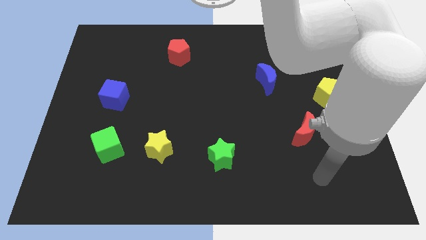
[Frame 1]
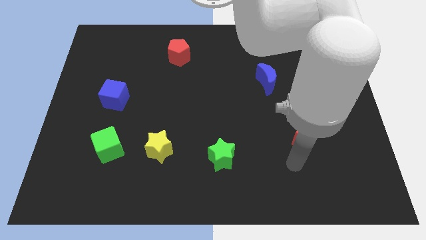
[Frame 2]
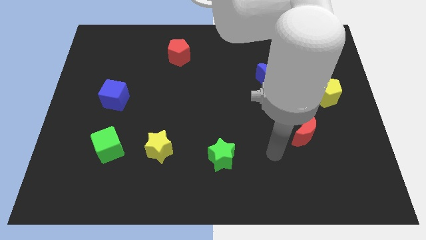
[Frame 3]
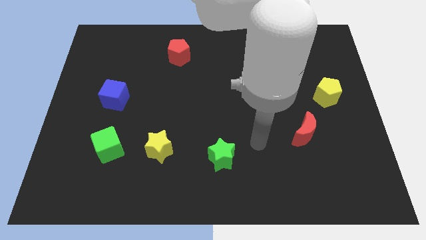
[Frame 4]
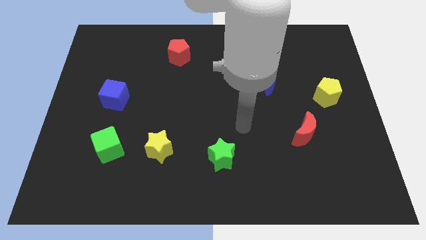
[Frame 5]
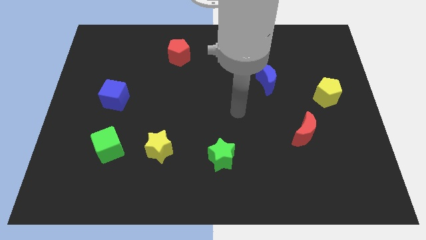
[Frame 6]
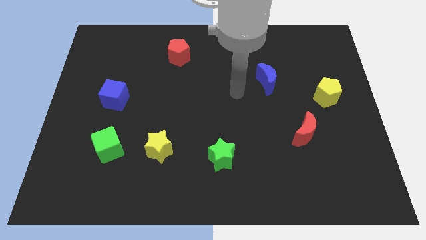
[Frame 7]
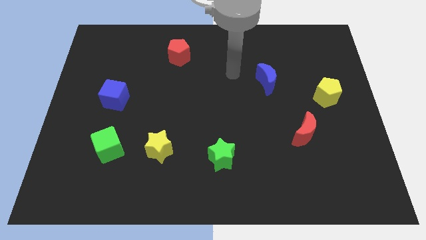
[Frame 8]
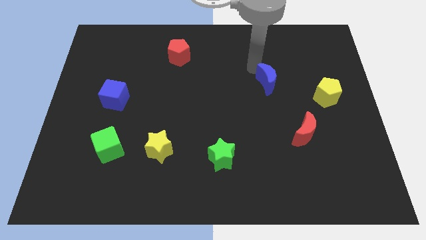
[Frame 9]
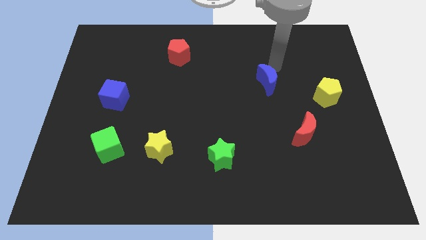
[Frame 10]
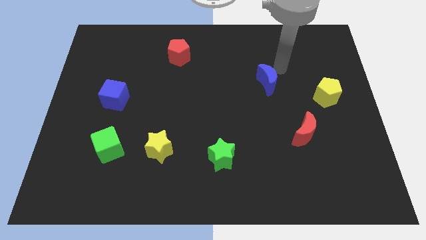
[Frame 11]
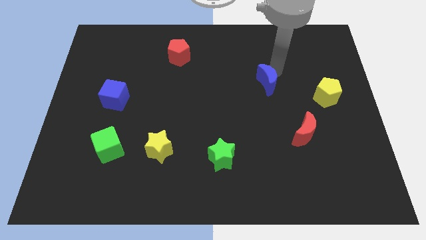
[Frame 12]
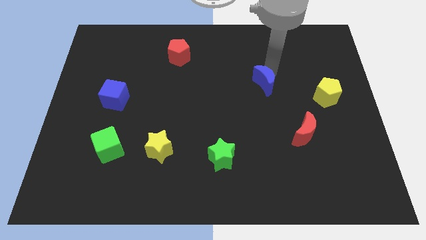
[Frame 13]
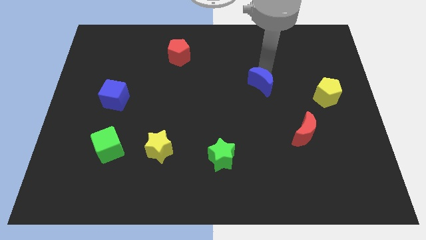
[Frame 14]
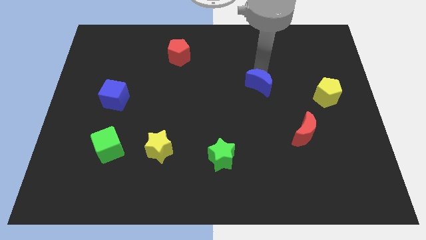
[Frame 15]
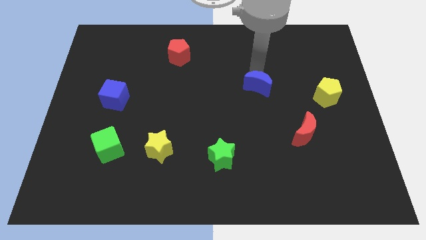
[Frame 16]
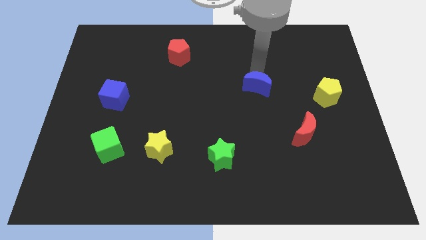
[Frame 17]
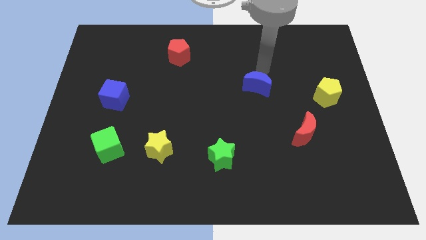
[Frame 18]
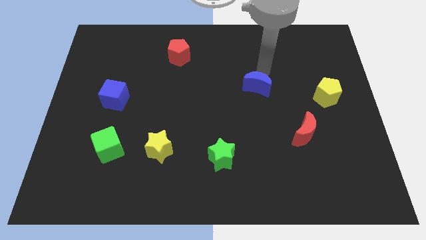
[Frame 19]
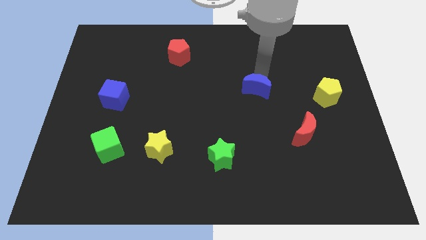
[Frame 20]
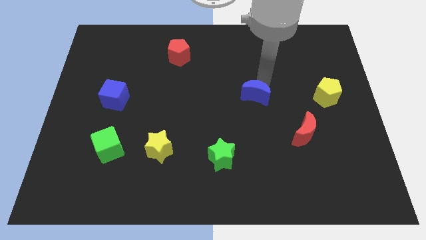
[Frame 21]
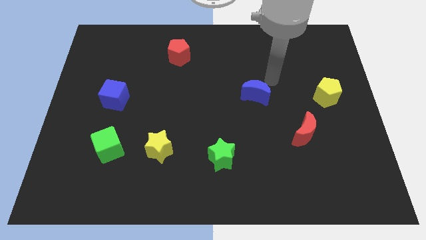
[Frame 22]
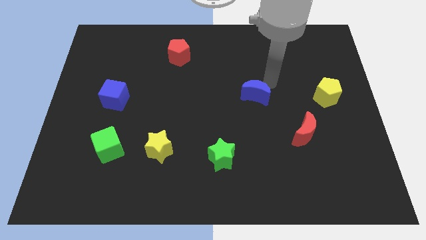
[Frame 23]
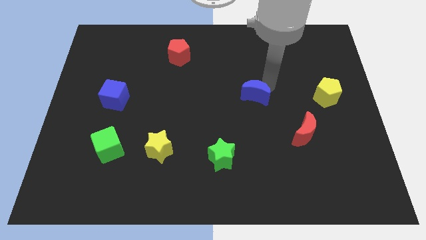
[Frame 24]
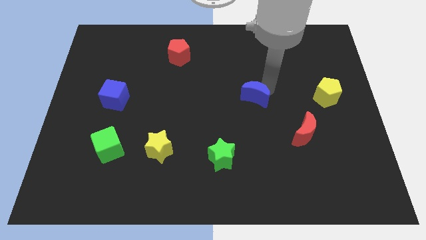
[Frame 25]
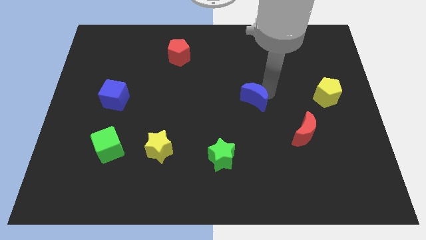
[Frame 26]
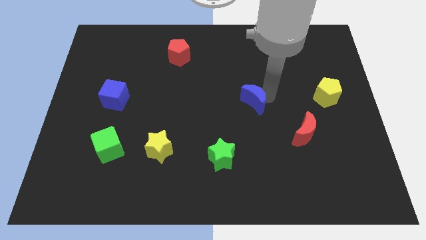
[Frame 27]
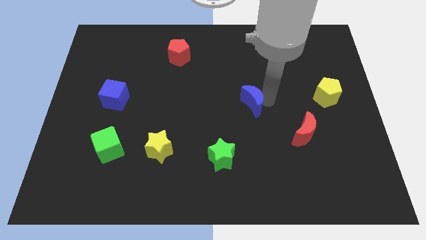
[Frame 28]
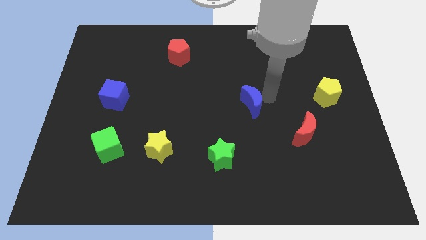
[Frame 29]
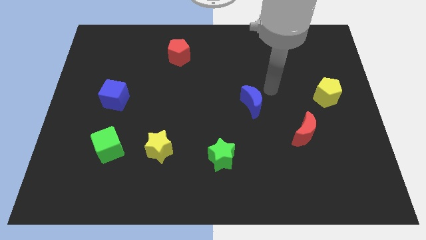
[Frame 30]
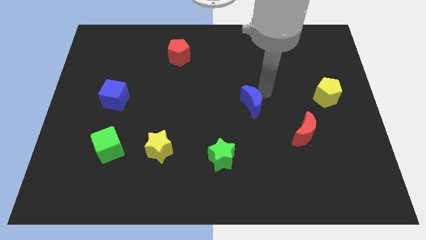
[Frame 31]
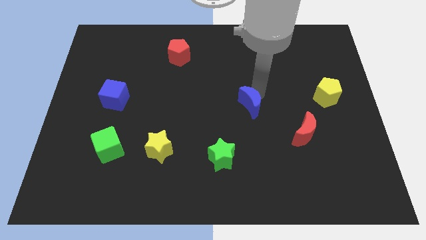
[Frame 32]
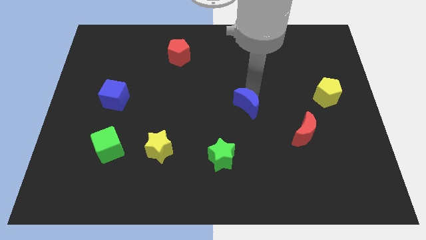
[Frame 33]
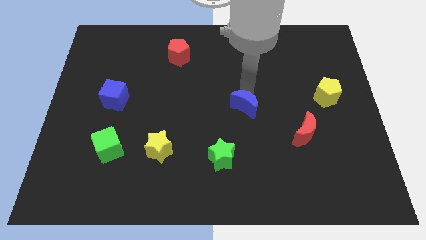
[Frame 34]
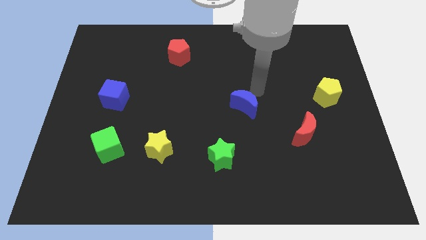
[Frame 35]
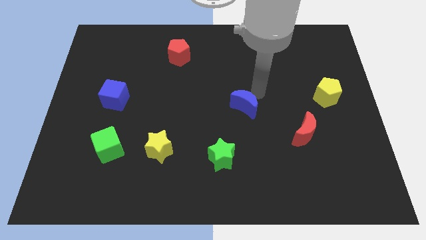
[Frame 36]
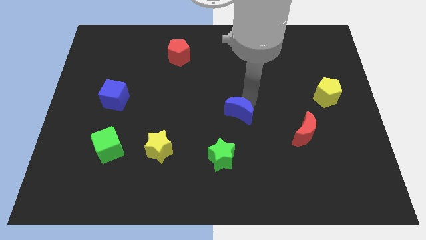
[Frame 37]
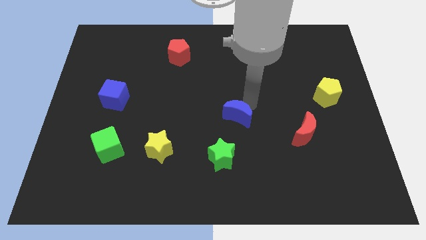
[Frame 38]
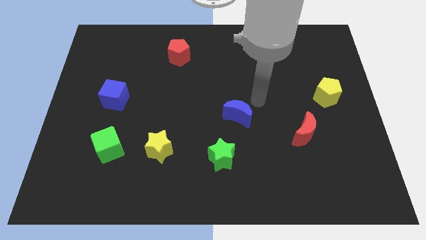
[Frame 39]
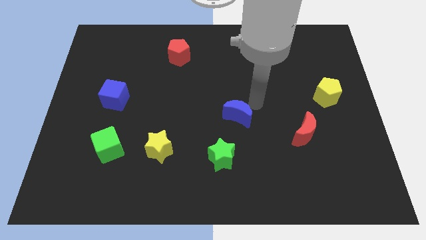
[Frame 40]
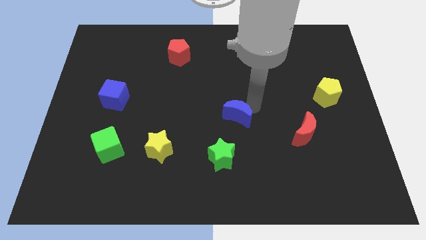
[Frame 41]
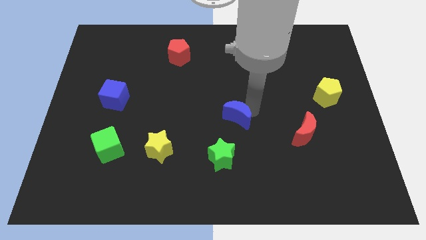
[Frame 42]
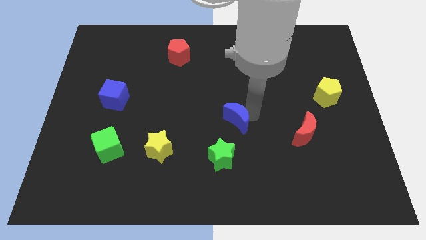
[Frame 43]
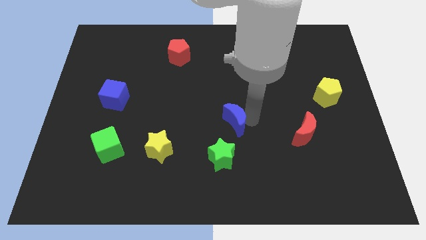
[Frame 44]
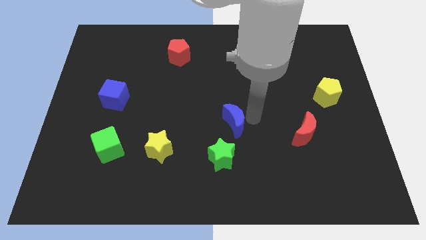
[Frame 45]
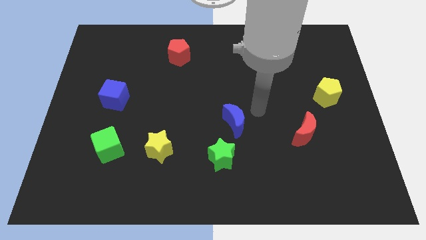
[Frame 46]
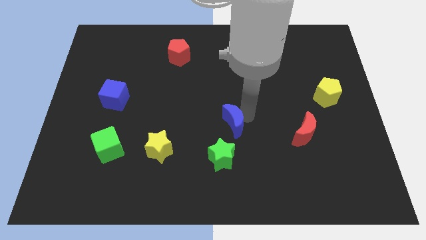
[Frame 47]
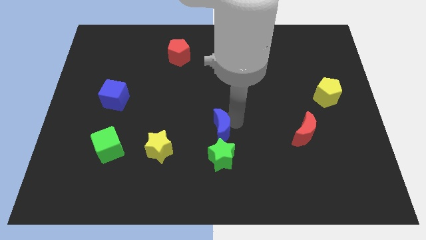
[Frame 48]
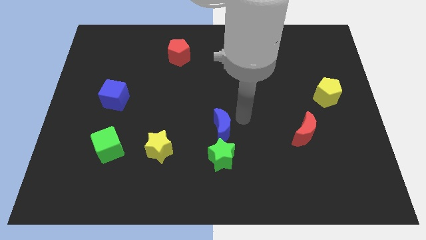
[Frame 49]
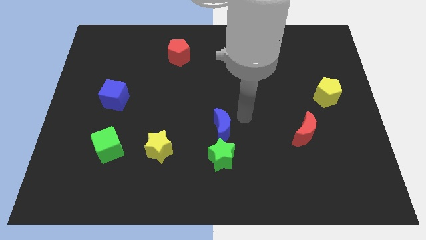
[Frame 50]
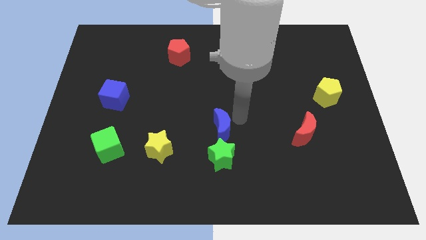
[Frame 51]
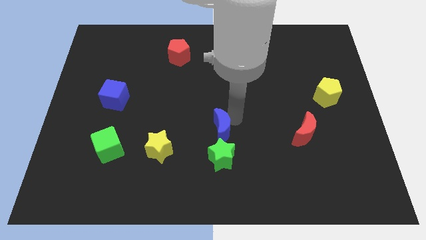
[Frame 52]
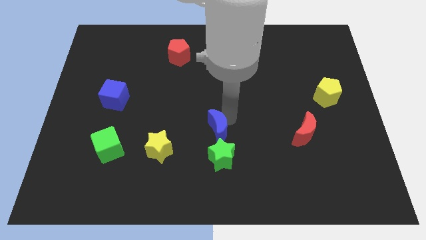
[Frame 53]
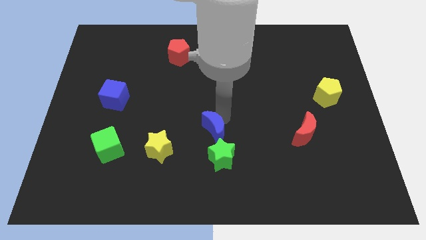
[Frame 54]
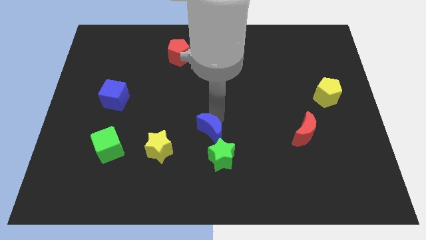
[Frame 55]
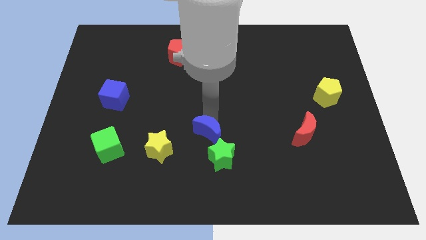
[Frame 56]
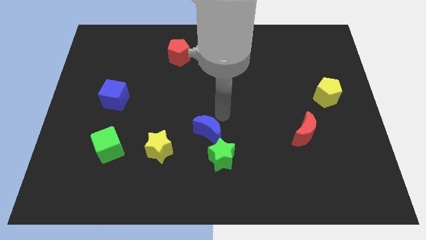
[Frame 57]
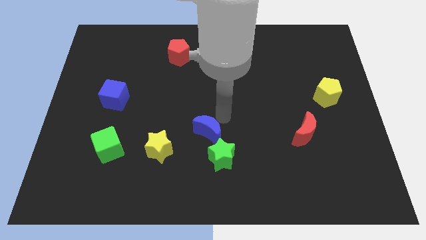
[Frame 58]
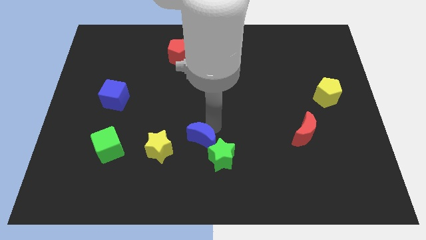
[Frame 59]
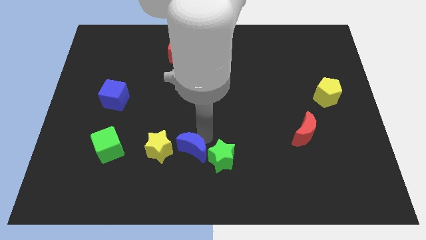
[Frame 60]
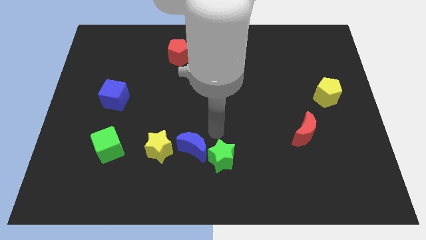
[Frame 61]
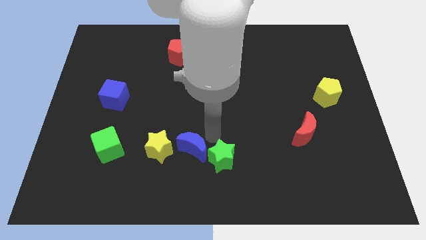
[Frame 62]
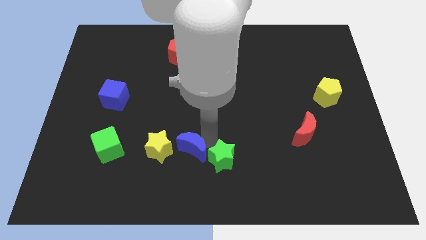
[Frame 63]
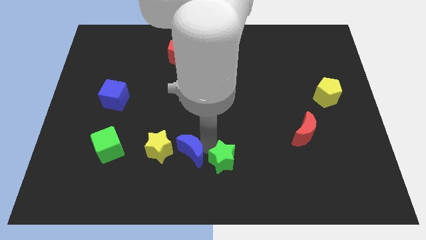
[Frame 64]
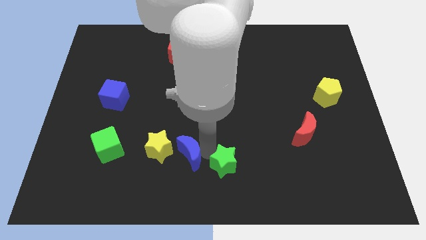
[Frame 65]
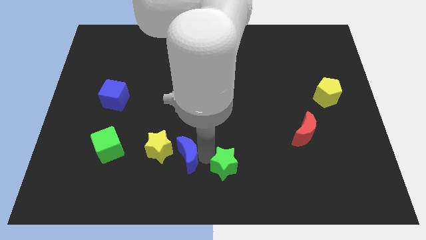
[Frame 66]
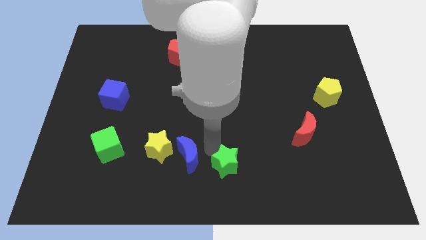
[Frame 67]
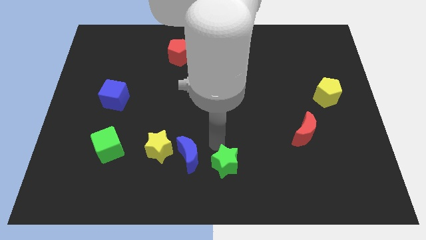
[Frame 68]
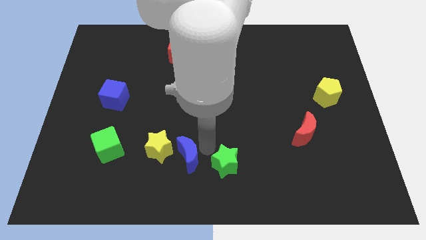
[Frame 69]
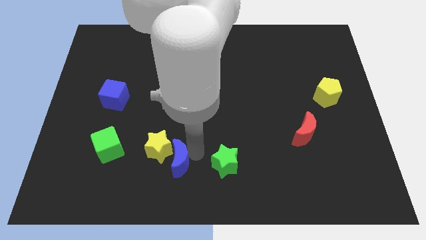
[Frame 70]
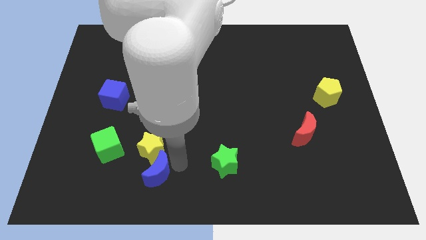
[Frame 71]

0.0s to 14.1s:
move the blue moon diagonally down and to the left of the yellow star
